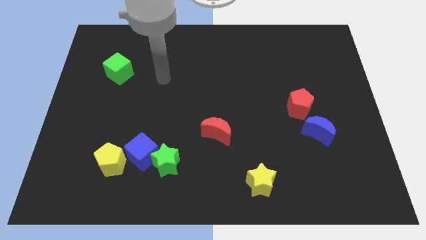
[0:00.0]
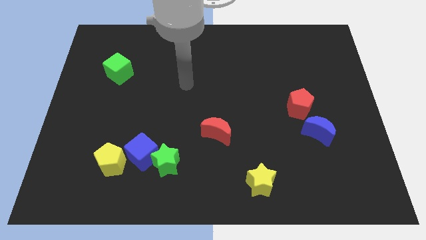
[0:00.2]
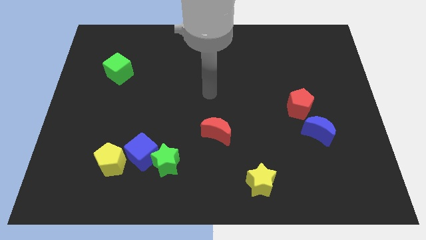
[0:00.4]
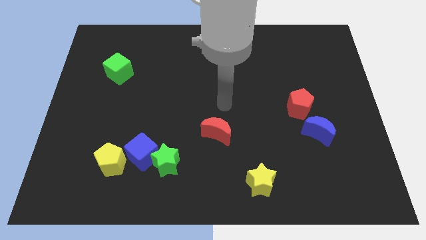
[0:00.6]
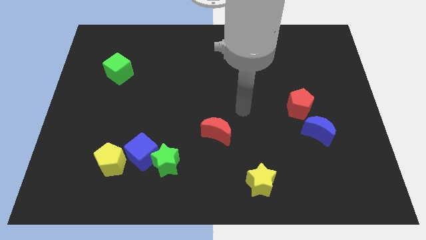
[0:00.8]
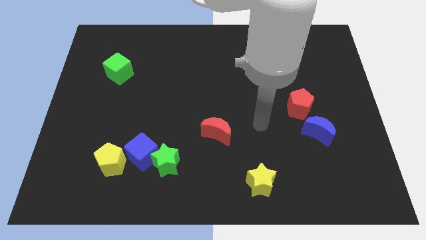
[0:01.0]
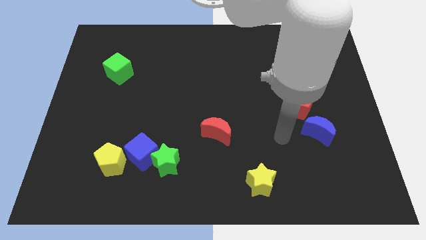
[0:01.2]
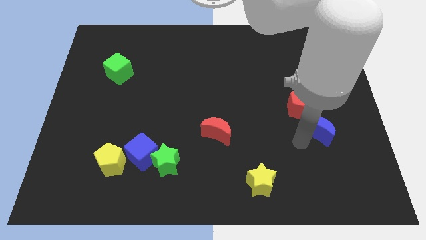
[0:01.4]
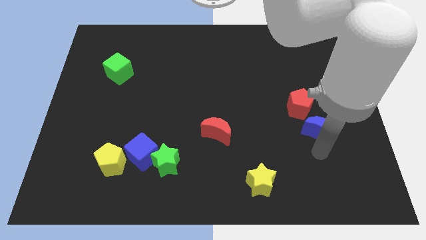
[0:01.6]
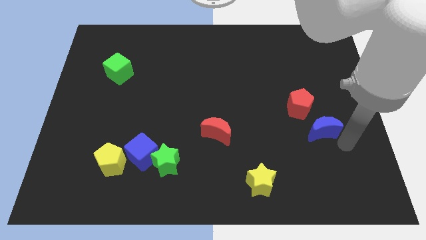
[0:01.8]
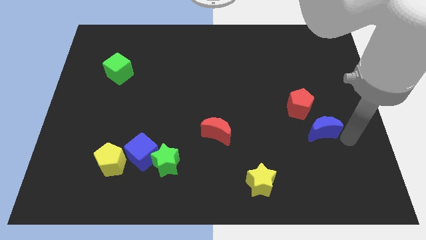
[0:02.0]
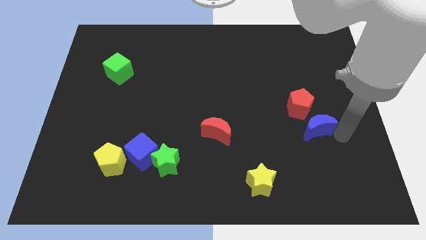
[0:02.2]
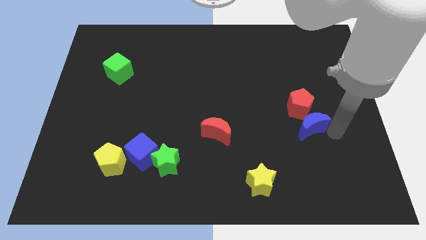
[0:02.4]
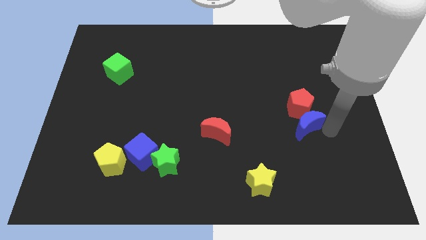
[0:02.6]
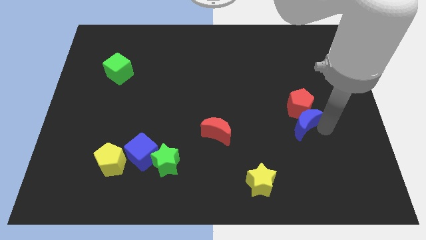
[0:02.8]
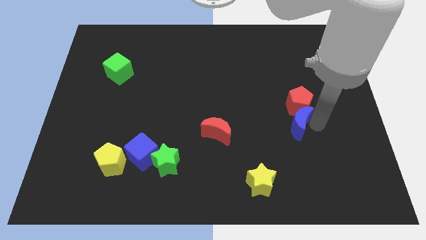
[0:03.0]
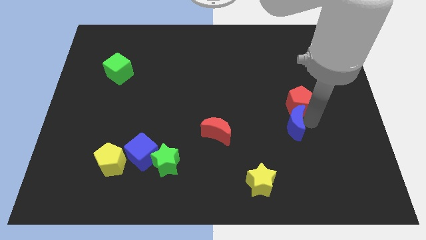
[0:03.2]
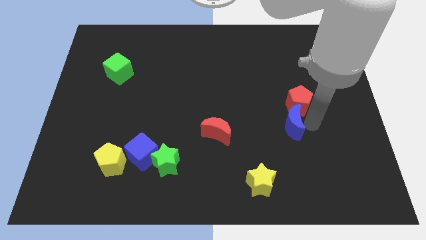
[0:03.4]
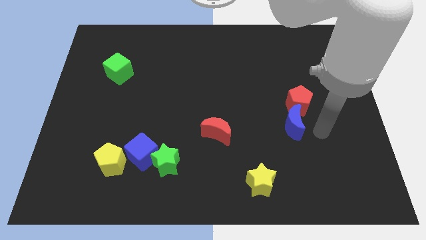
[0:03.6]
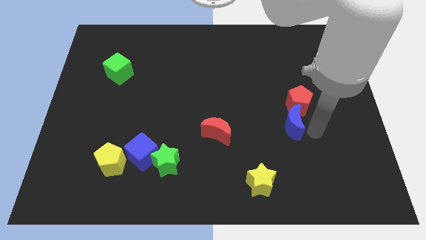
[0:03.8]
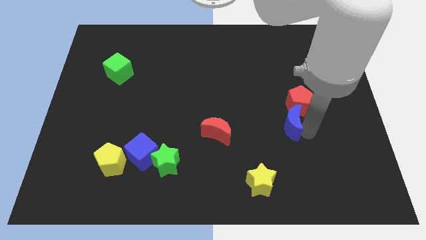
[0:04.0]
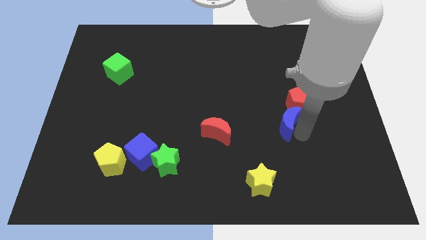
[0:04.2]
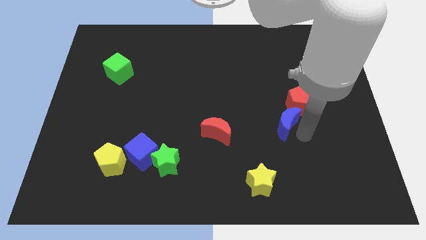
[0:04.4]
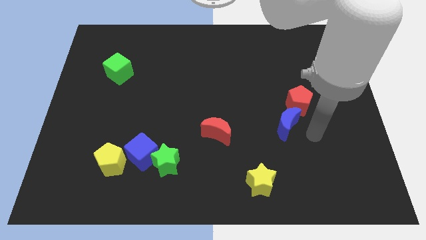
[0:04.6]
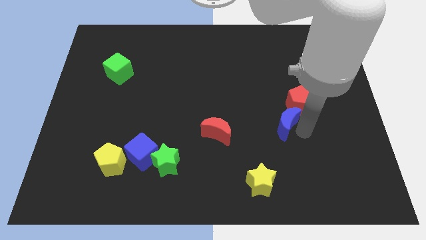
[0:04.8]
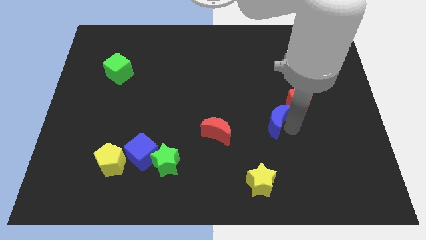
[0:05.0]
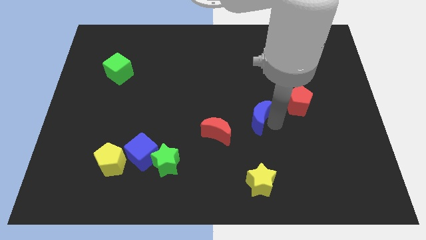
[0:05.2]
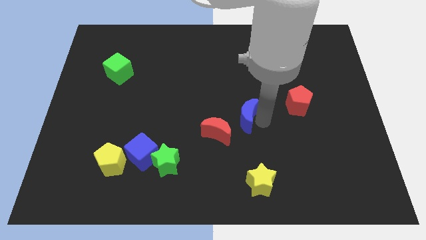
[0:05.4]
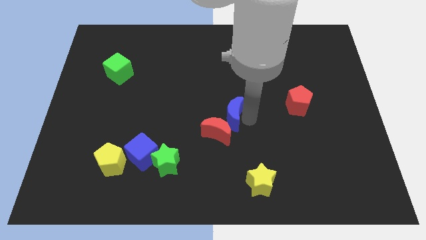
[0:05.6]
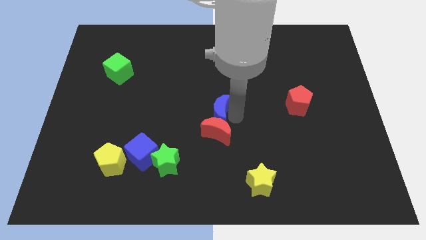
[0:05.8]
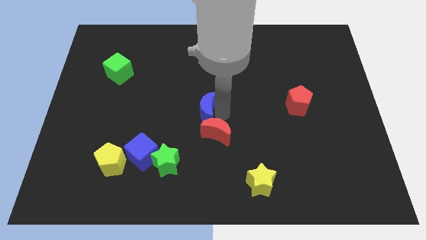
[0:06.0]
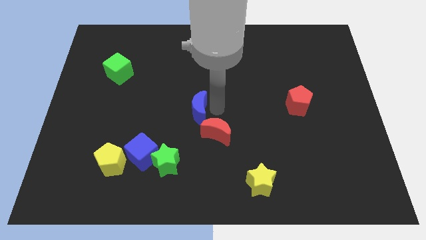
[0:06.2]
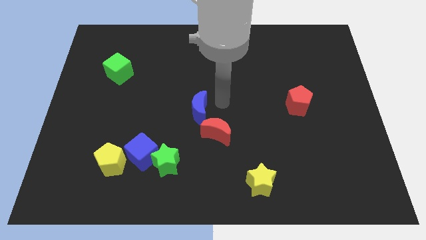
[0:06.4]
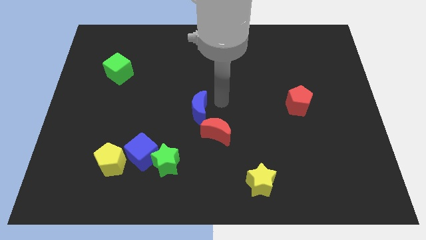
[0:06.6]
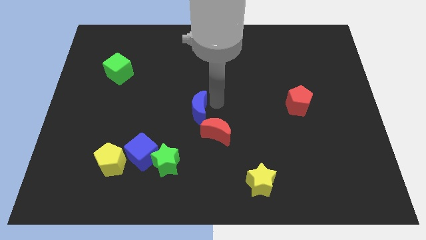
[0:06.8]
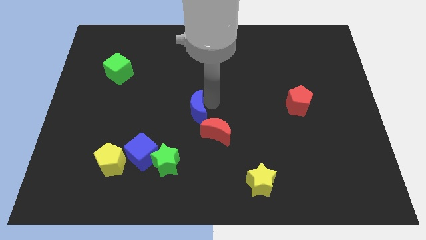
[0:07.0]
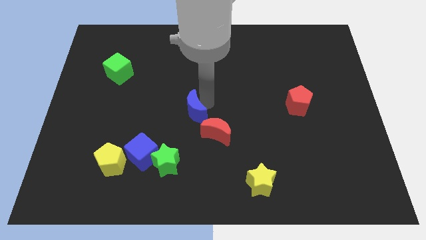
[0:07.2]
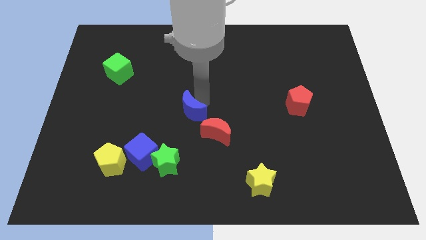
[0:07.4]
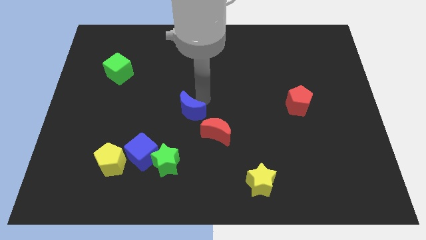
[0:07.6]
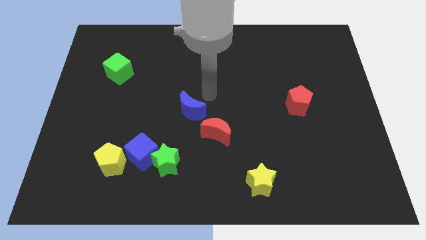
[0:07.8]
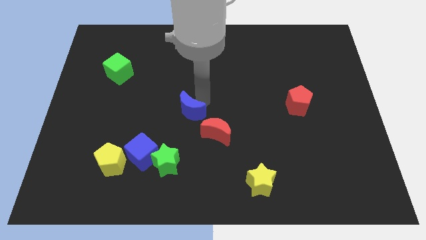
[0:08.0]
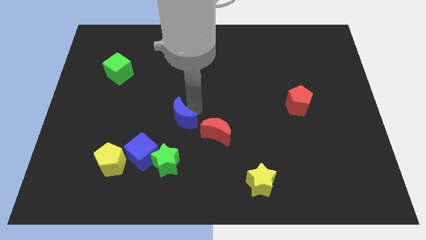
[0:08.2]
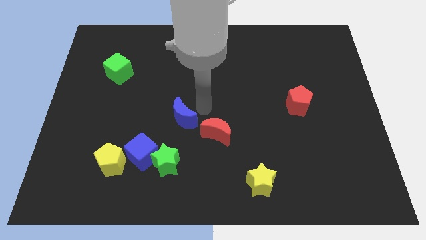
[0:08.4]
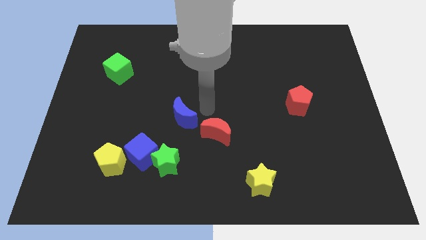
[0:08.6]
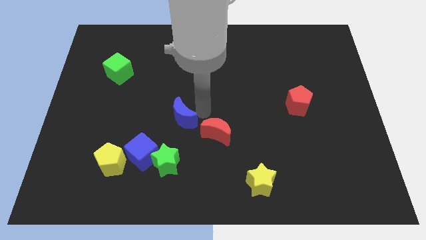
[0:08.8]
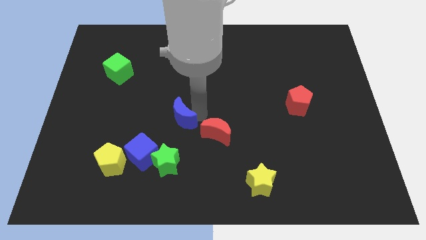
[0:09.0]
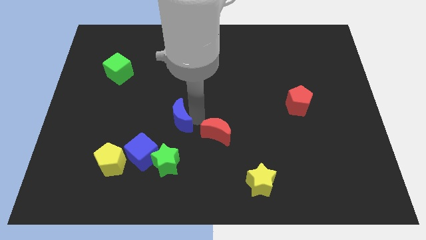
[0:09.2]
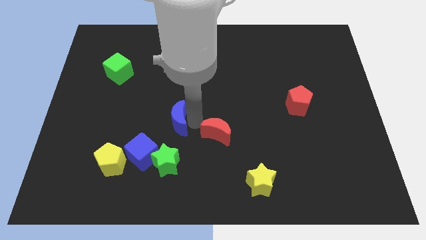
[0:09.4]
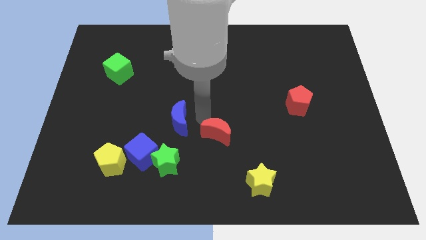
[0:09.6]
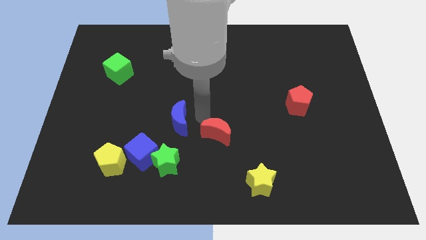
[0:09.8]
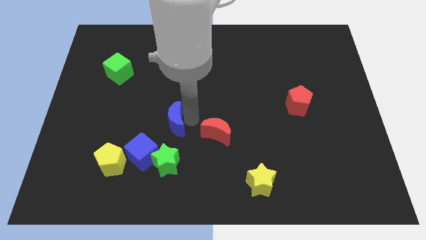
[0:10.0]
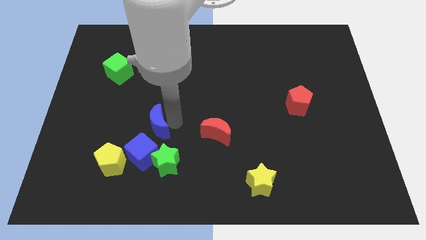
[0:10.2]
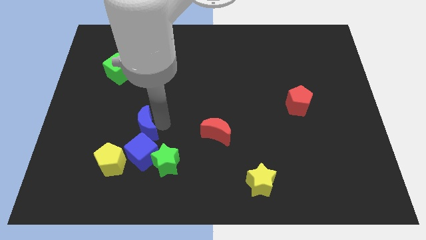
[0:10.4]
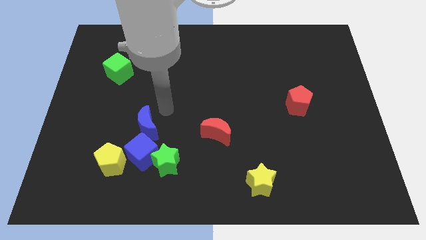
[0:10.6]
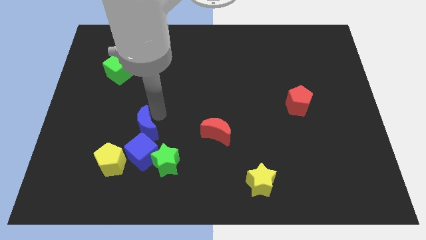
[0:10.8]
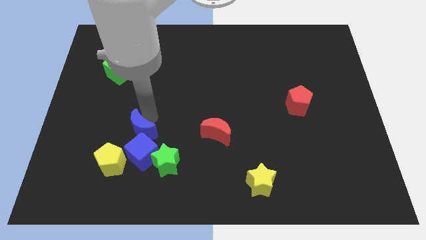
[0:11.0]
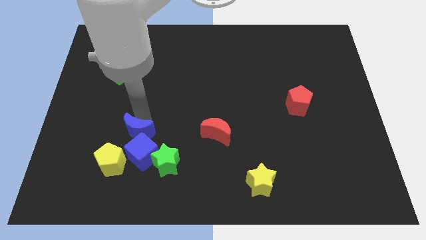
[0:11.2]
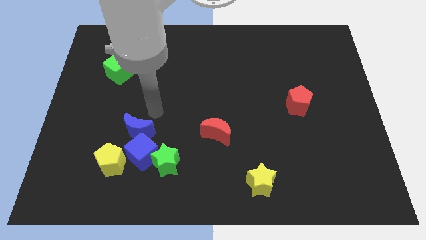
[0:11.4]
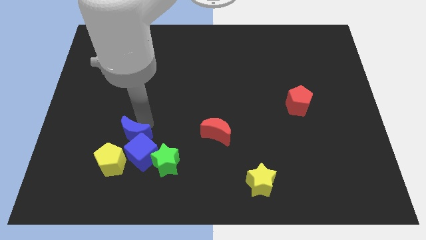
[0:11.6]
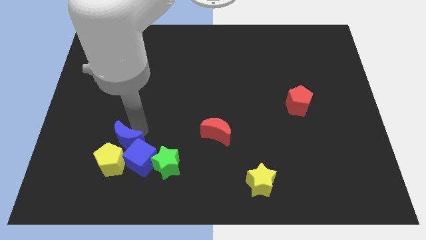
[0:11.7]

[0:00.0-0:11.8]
put the blue moon to the yellow pentagon

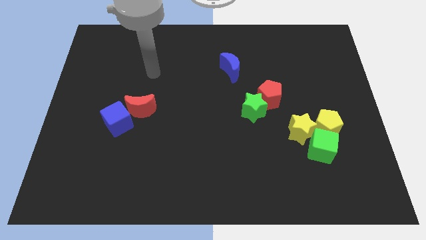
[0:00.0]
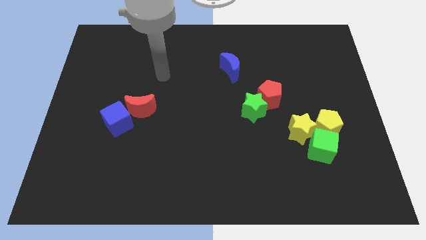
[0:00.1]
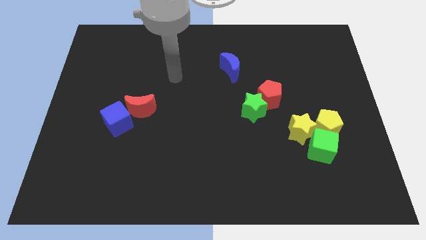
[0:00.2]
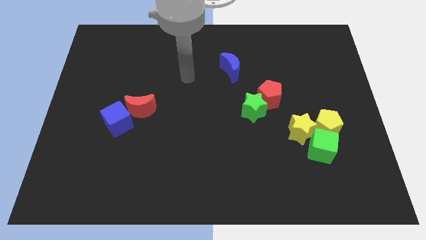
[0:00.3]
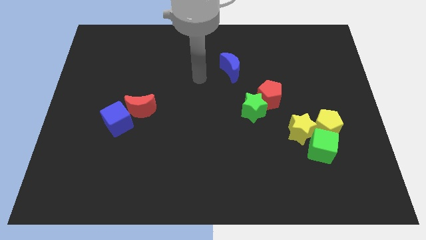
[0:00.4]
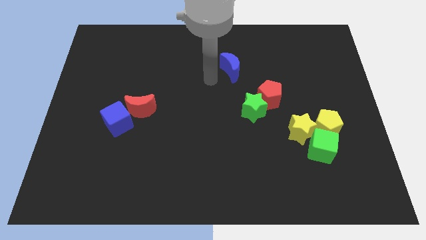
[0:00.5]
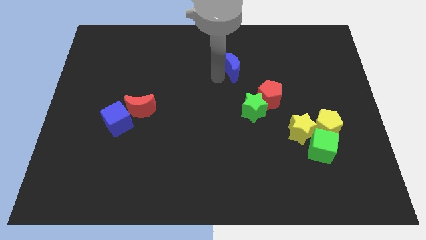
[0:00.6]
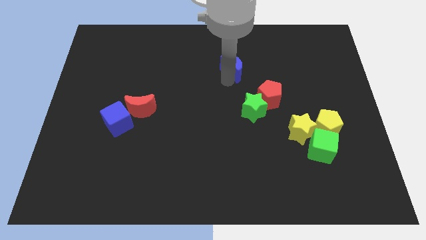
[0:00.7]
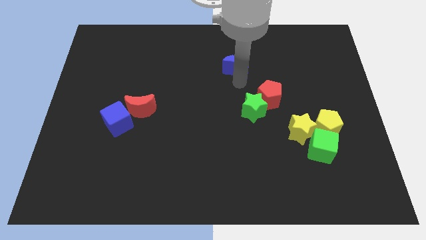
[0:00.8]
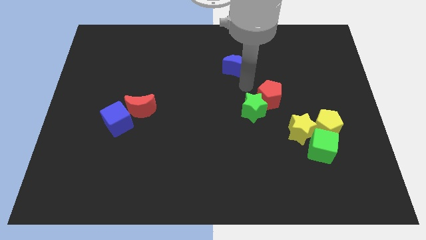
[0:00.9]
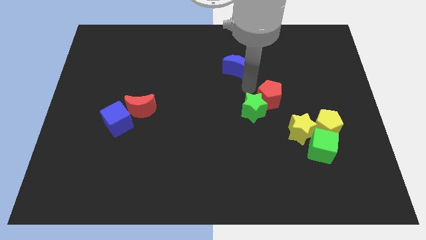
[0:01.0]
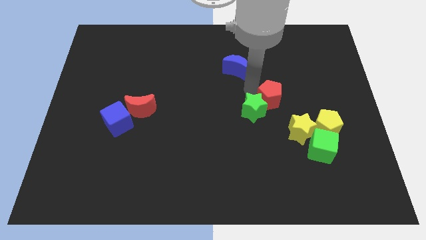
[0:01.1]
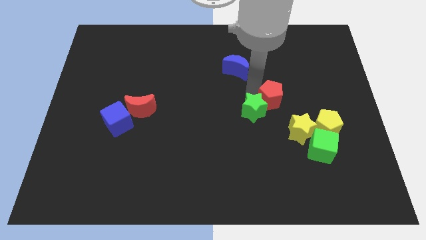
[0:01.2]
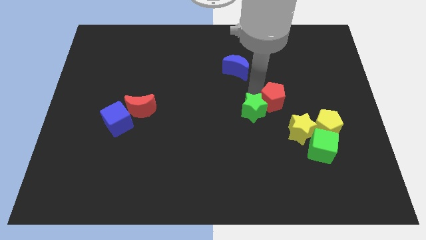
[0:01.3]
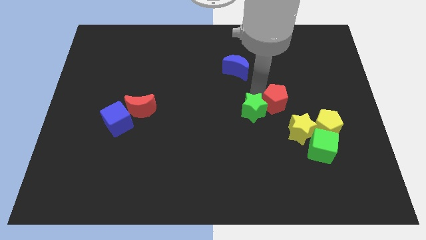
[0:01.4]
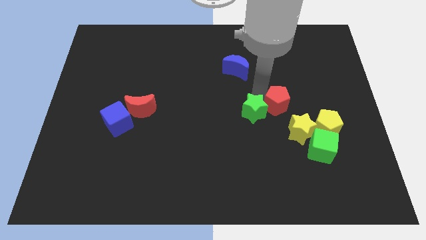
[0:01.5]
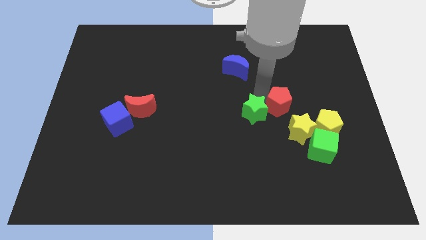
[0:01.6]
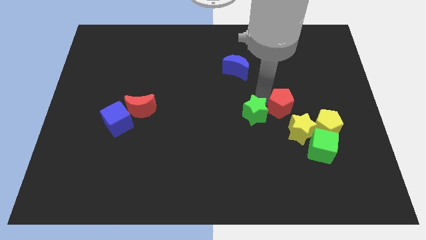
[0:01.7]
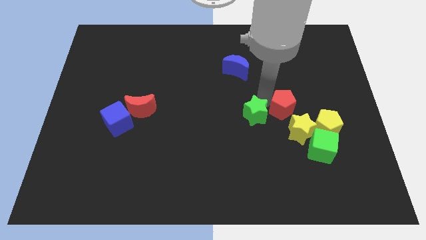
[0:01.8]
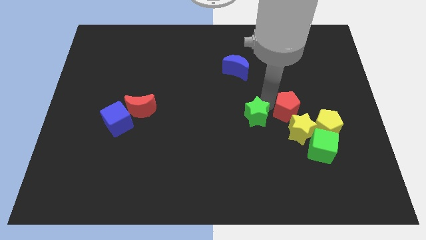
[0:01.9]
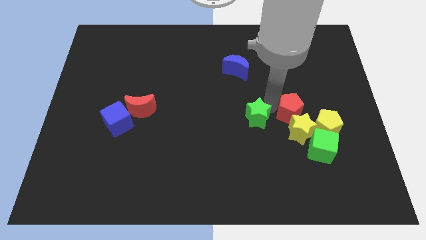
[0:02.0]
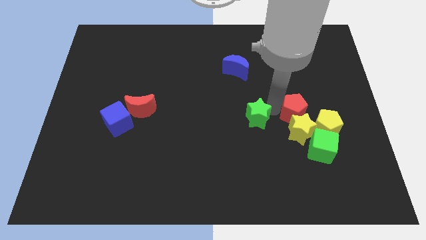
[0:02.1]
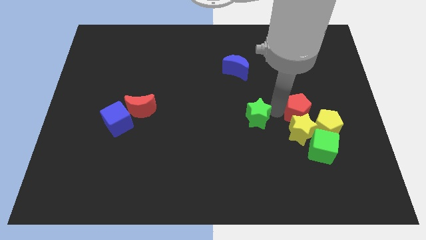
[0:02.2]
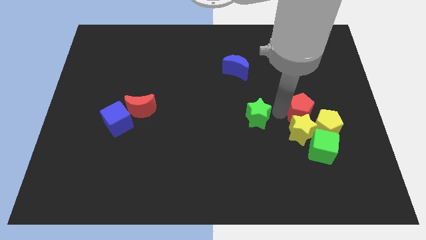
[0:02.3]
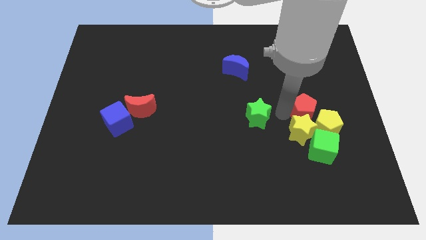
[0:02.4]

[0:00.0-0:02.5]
move the red pentagon next to the yellow pentagon
